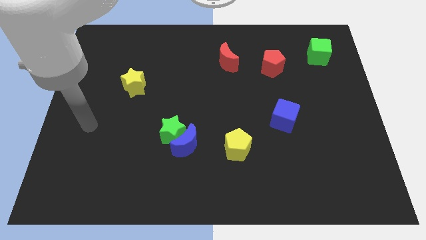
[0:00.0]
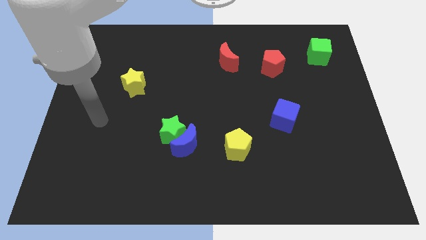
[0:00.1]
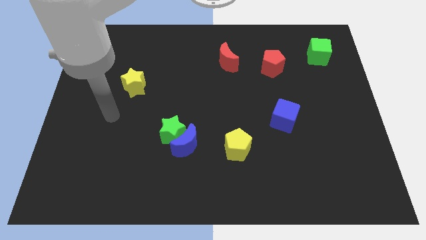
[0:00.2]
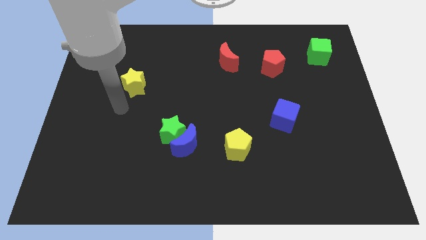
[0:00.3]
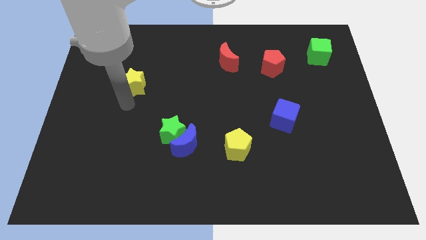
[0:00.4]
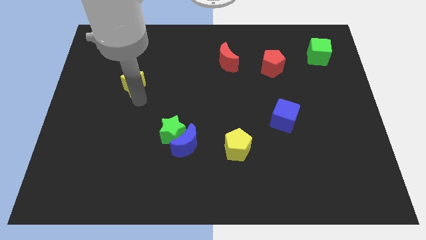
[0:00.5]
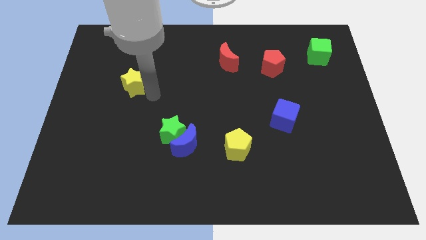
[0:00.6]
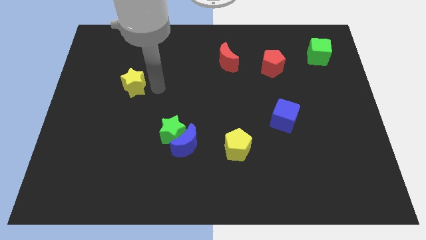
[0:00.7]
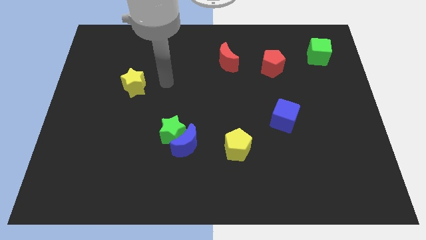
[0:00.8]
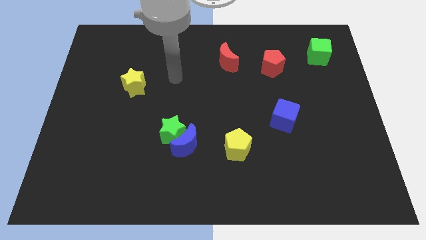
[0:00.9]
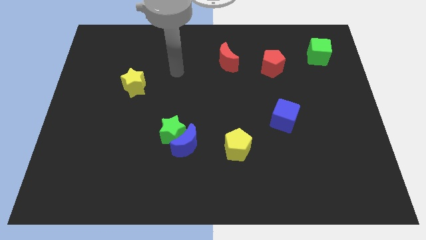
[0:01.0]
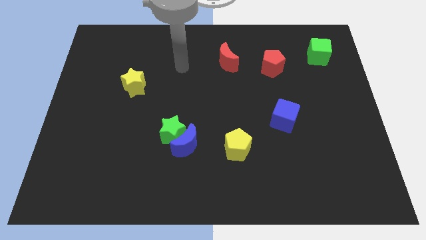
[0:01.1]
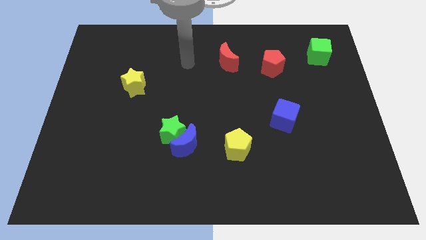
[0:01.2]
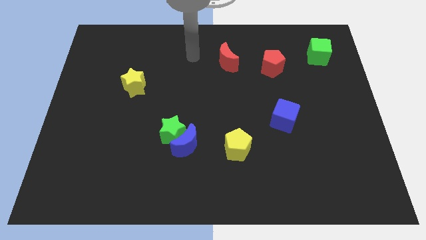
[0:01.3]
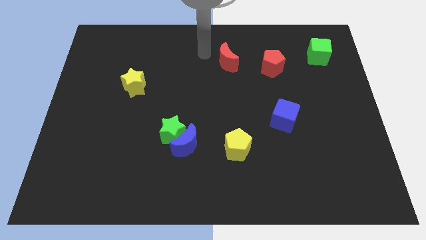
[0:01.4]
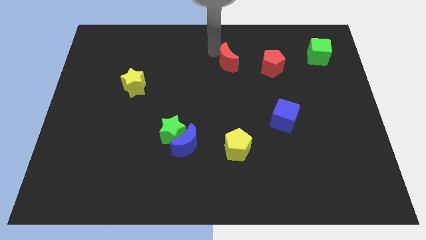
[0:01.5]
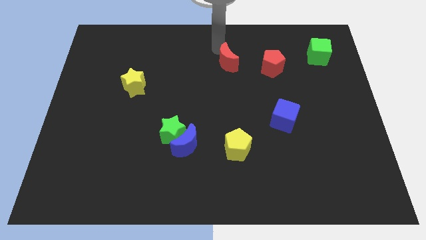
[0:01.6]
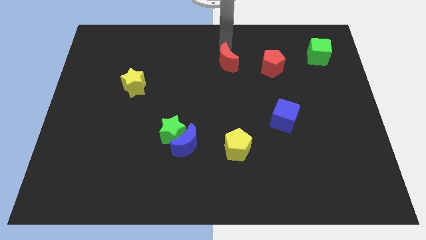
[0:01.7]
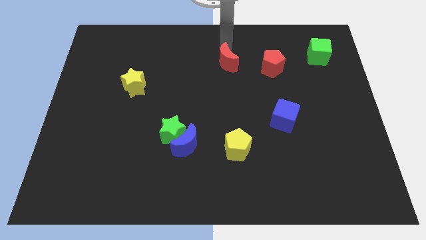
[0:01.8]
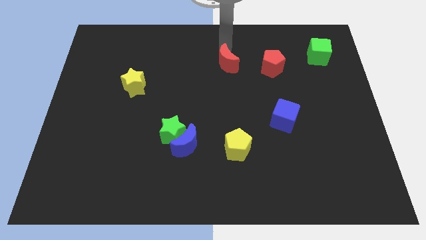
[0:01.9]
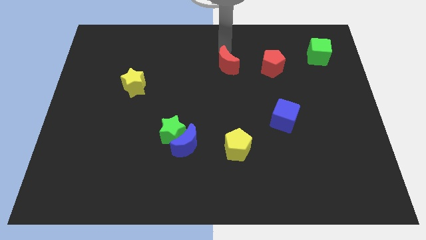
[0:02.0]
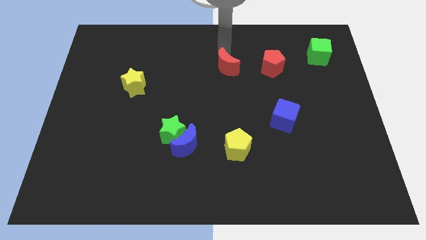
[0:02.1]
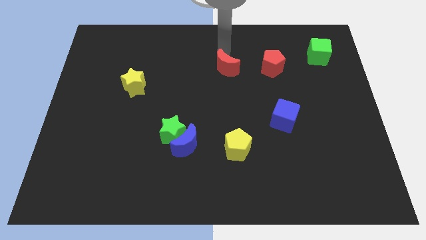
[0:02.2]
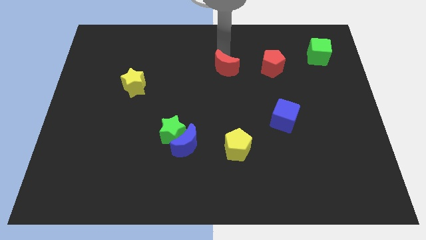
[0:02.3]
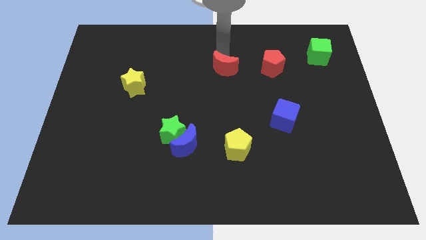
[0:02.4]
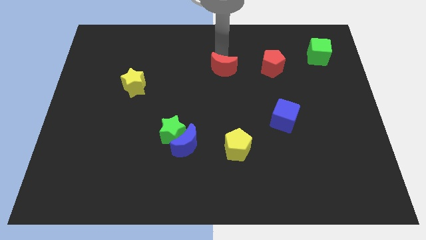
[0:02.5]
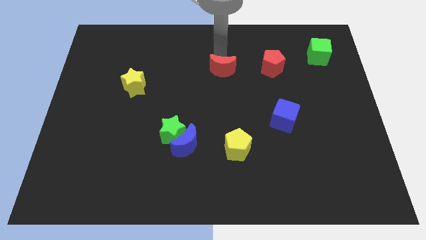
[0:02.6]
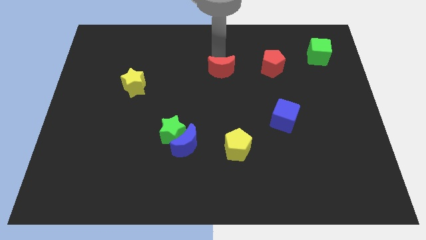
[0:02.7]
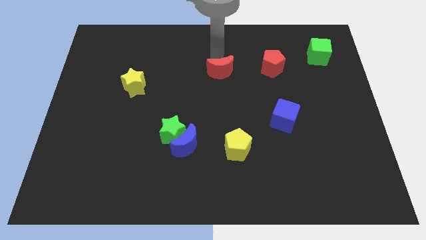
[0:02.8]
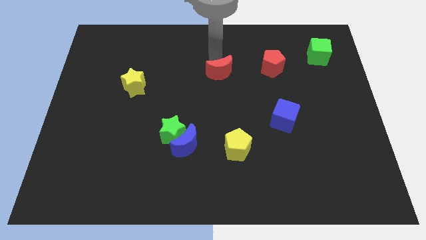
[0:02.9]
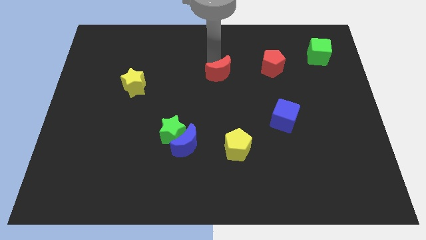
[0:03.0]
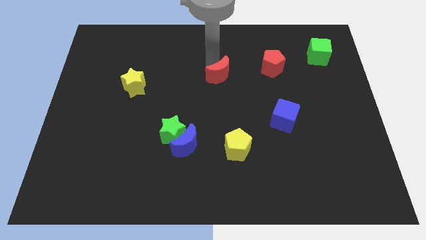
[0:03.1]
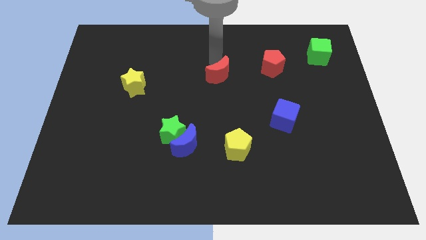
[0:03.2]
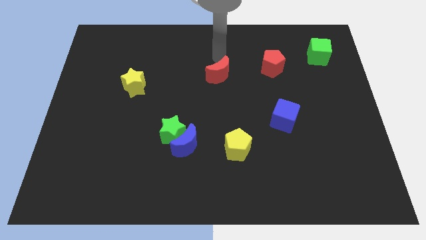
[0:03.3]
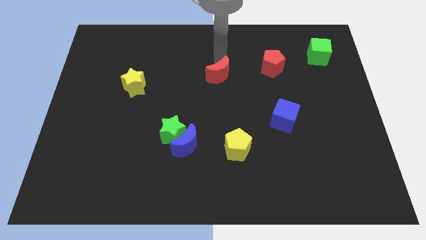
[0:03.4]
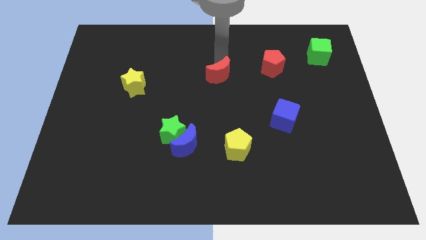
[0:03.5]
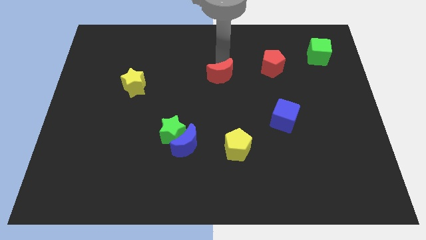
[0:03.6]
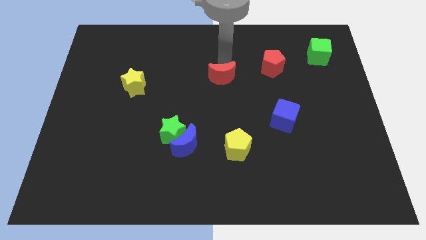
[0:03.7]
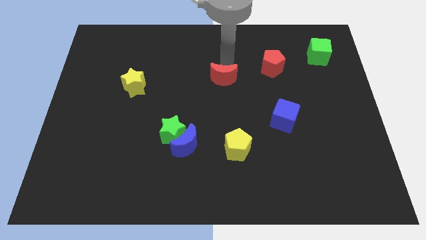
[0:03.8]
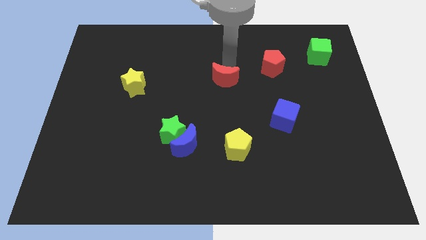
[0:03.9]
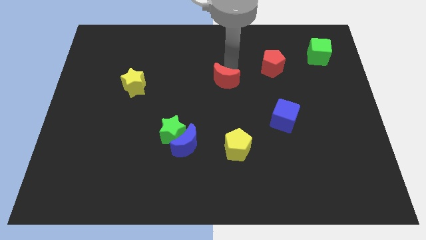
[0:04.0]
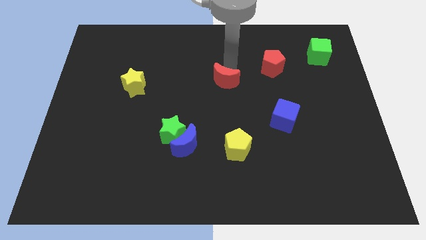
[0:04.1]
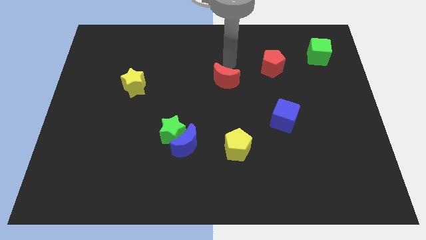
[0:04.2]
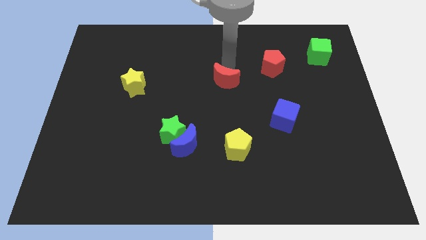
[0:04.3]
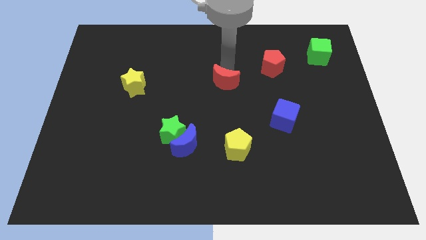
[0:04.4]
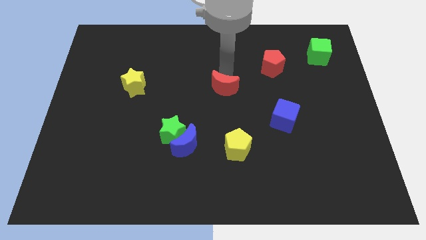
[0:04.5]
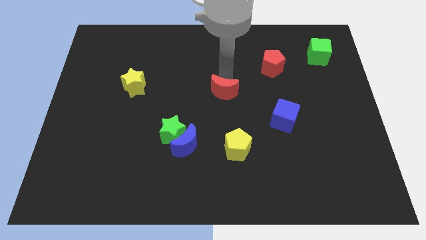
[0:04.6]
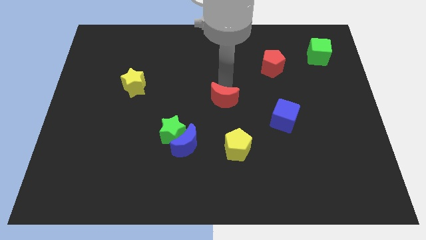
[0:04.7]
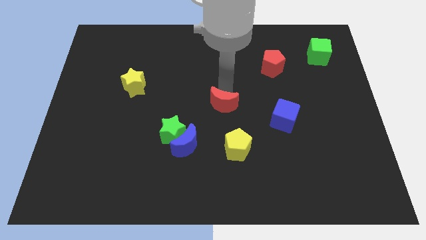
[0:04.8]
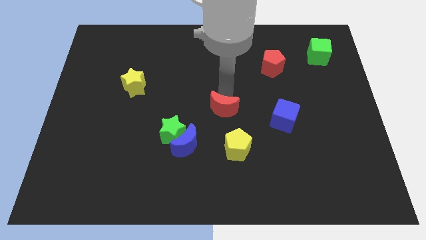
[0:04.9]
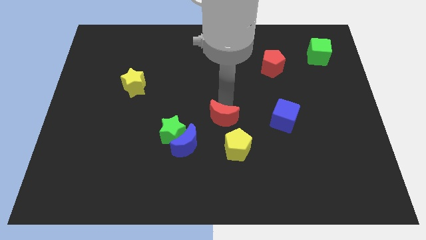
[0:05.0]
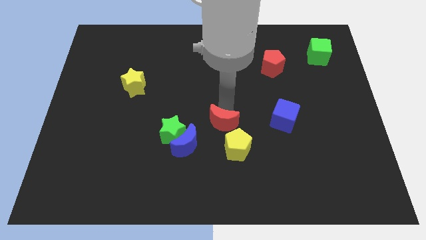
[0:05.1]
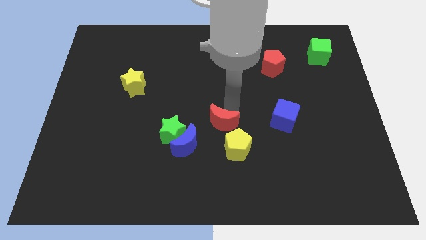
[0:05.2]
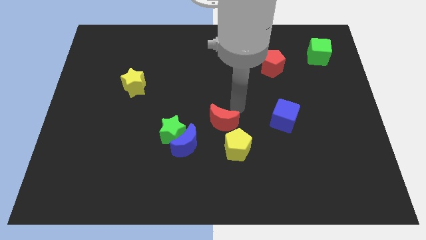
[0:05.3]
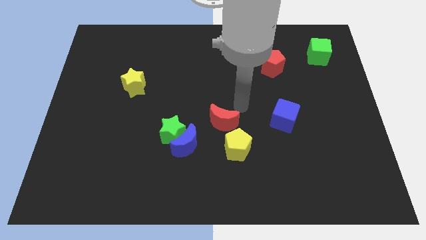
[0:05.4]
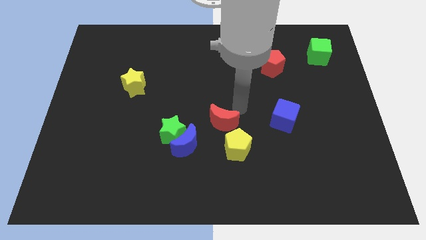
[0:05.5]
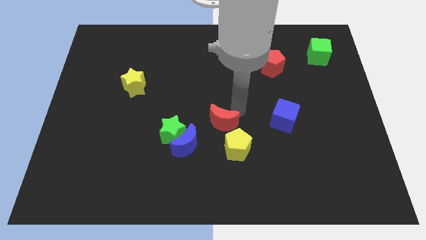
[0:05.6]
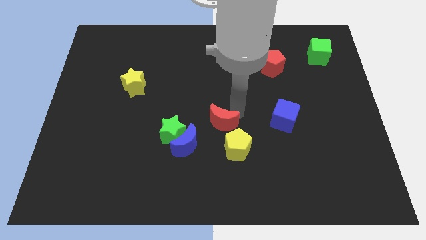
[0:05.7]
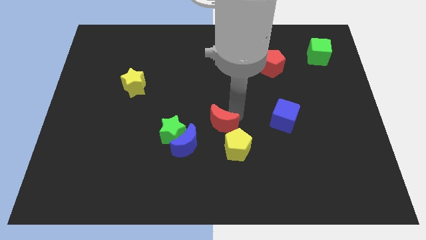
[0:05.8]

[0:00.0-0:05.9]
push the red moon downwards

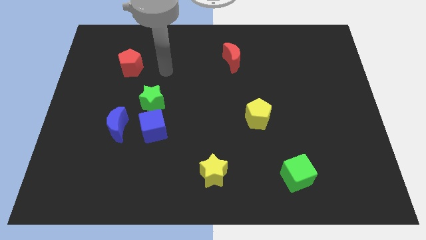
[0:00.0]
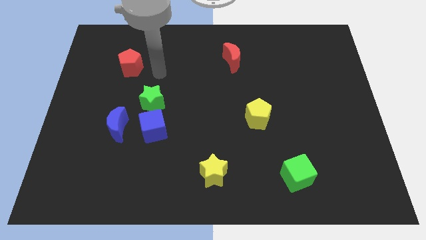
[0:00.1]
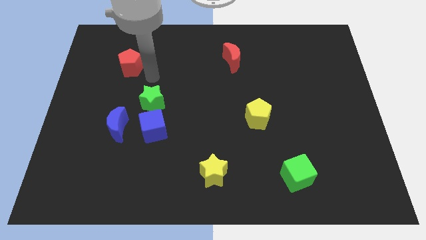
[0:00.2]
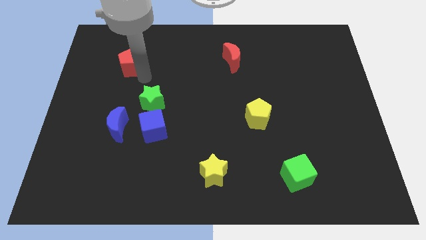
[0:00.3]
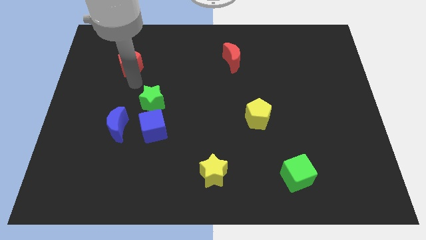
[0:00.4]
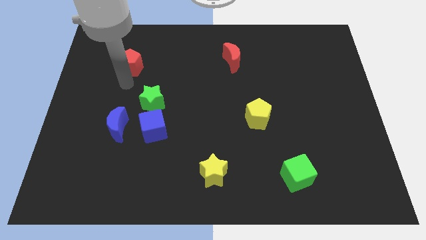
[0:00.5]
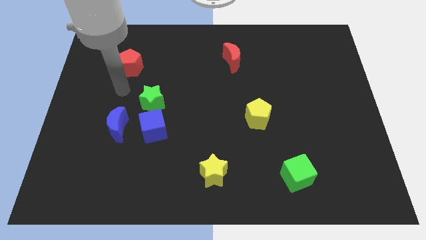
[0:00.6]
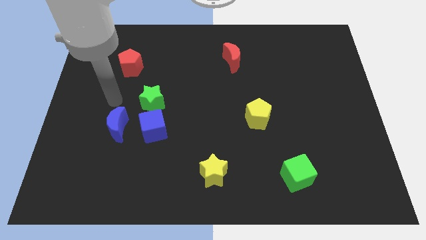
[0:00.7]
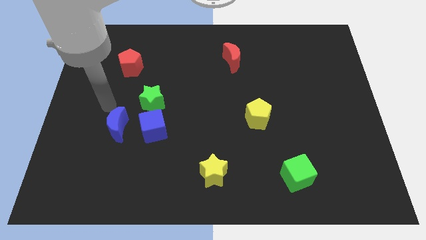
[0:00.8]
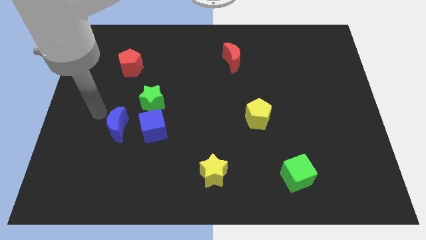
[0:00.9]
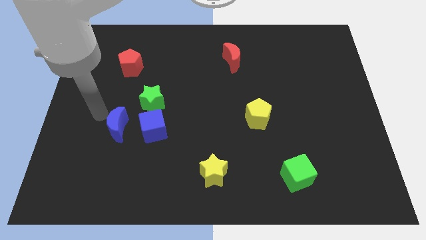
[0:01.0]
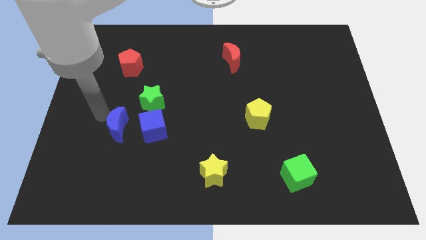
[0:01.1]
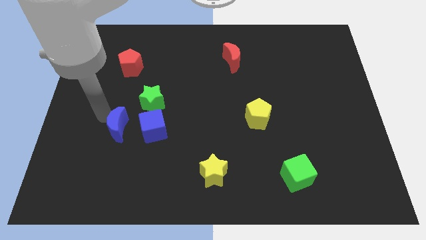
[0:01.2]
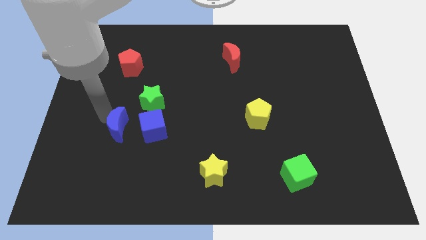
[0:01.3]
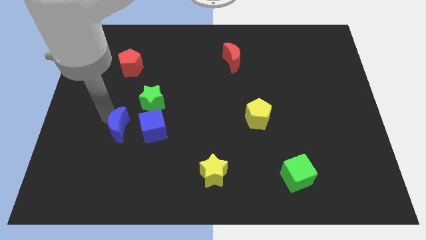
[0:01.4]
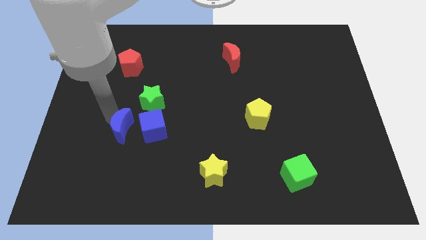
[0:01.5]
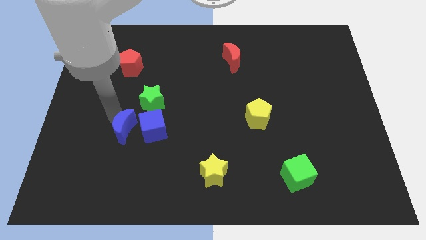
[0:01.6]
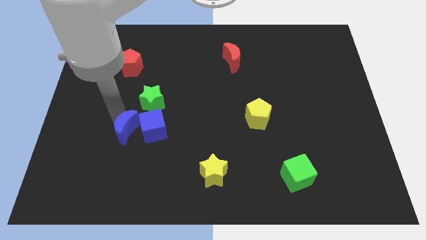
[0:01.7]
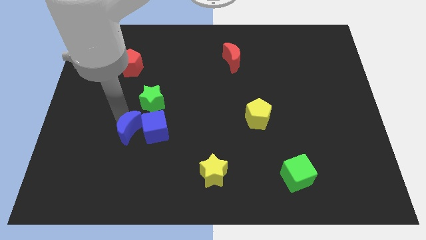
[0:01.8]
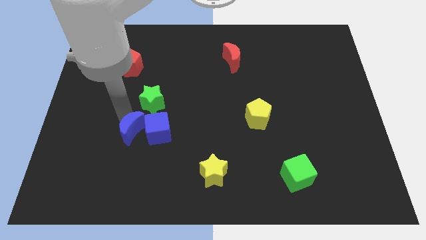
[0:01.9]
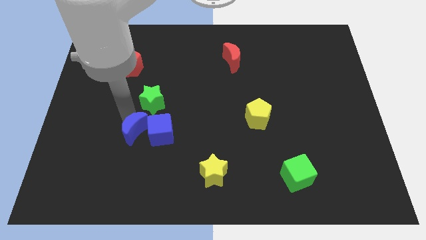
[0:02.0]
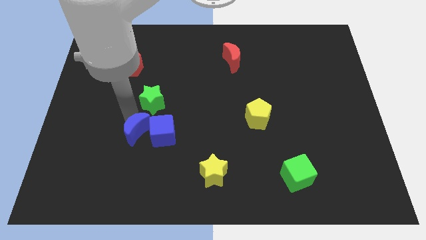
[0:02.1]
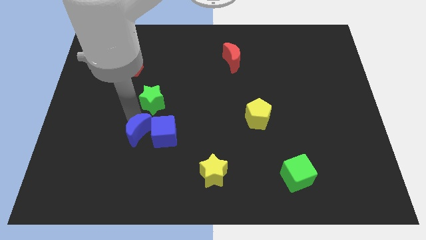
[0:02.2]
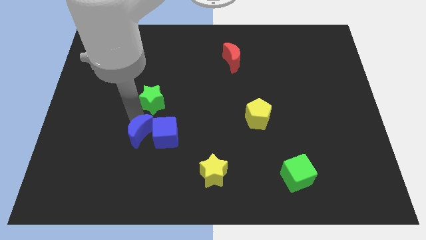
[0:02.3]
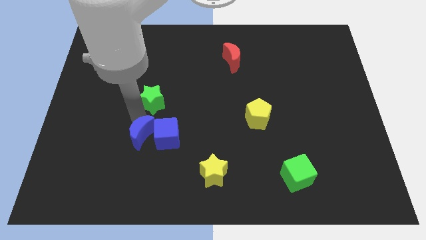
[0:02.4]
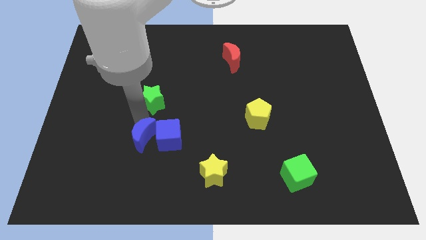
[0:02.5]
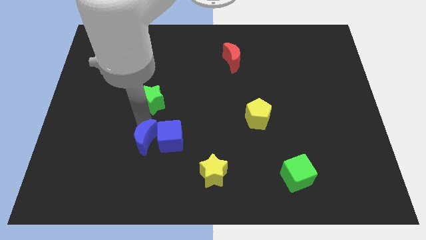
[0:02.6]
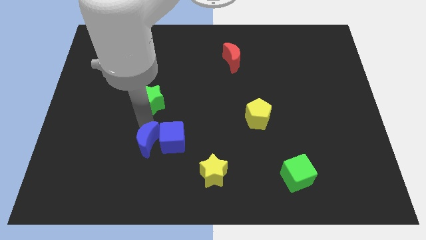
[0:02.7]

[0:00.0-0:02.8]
slightly move the blue moon right
